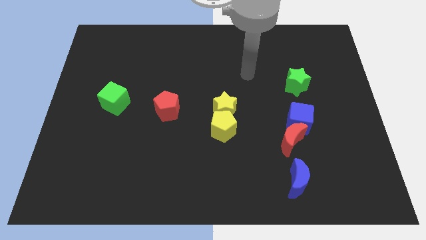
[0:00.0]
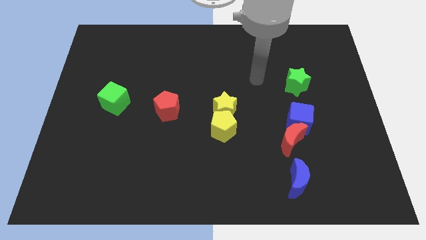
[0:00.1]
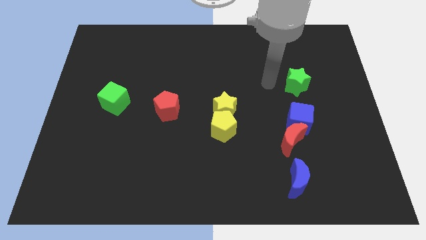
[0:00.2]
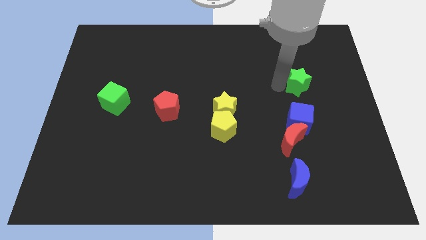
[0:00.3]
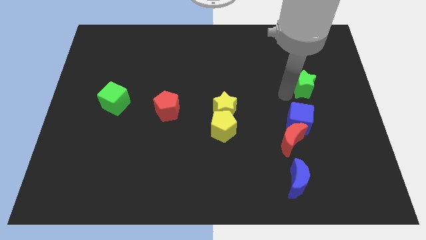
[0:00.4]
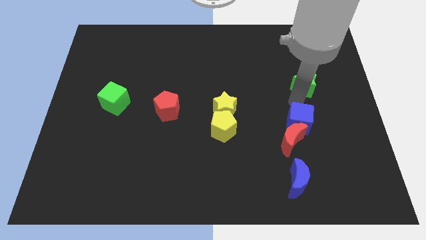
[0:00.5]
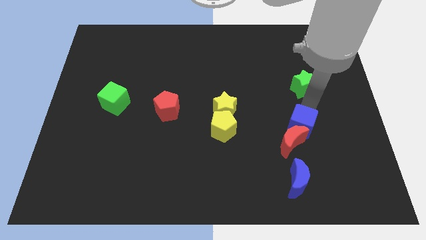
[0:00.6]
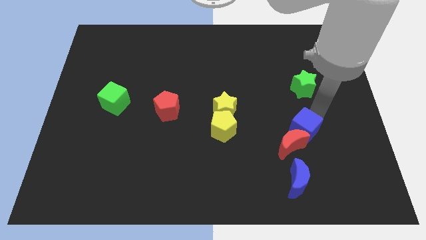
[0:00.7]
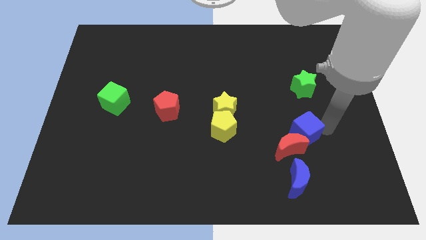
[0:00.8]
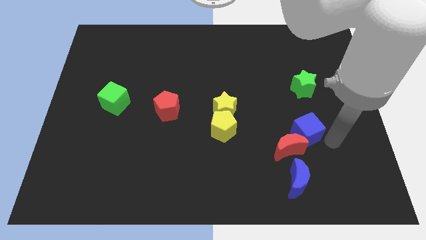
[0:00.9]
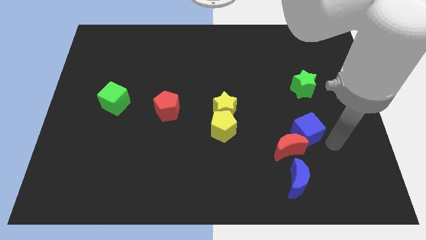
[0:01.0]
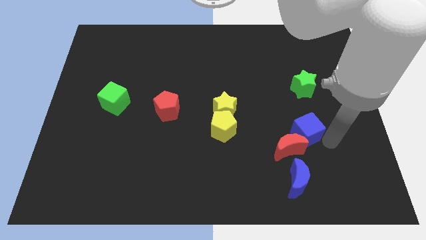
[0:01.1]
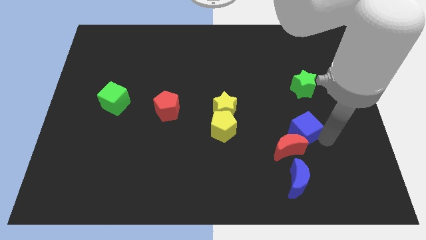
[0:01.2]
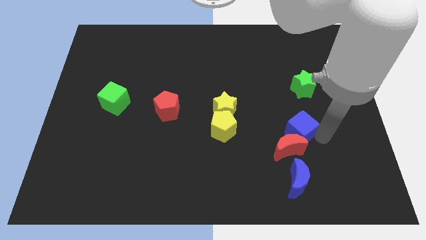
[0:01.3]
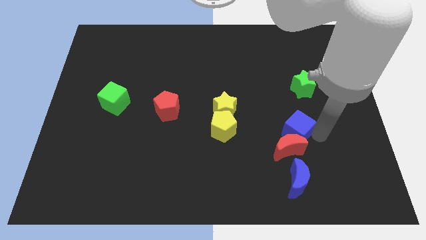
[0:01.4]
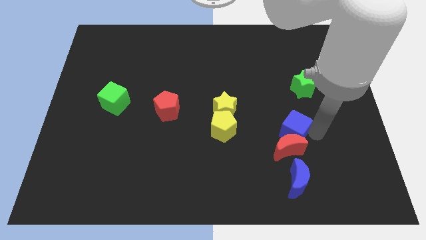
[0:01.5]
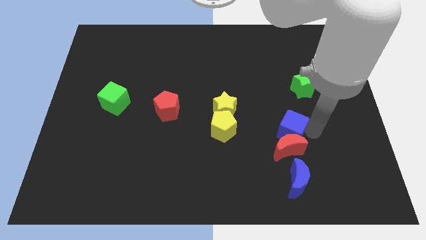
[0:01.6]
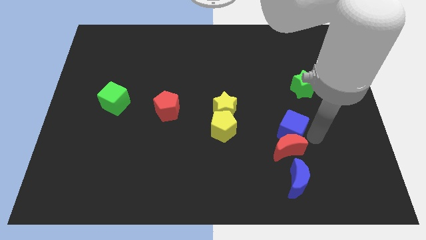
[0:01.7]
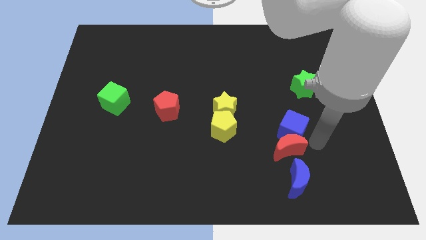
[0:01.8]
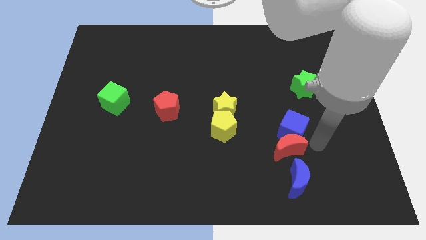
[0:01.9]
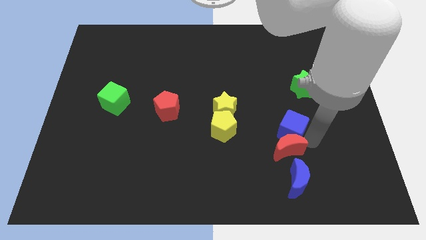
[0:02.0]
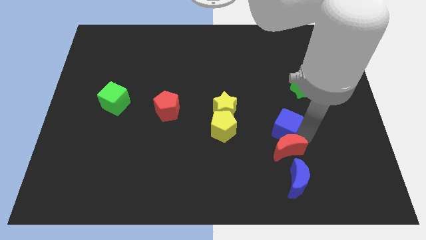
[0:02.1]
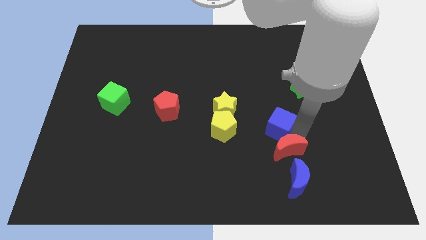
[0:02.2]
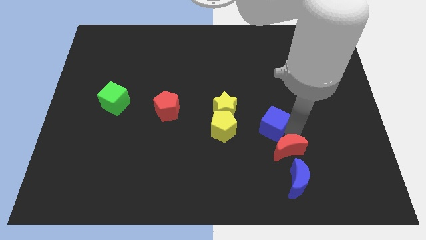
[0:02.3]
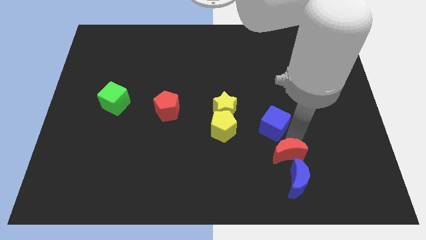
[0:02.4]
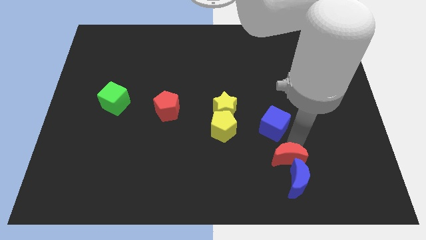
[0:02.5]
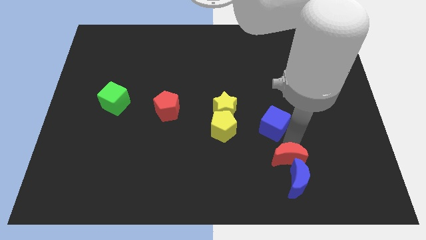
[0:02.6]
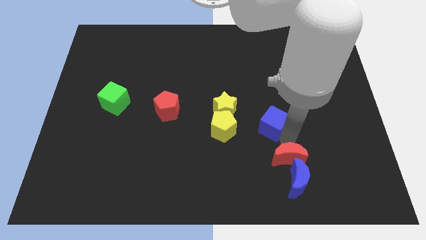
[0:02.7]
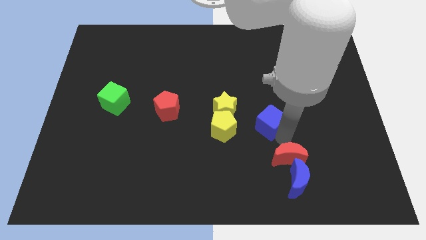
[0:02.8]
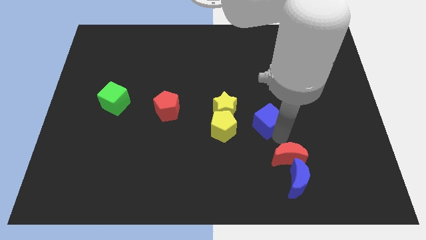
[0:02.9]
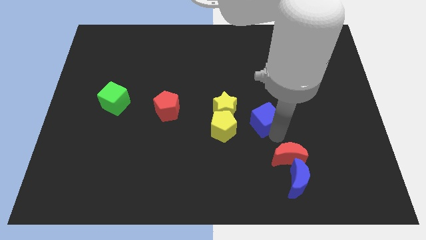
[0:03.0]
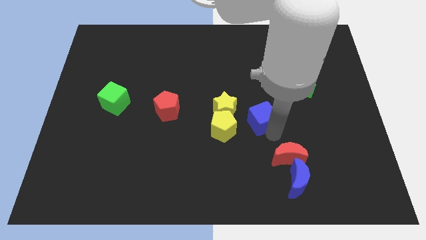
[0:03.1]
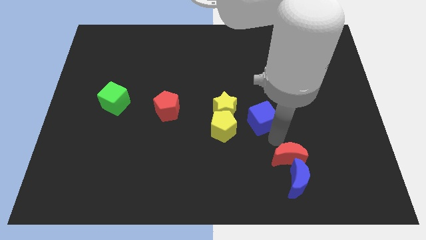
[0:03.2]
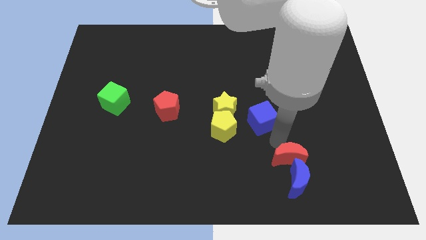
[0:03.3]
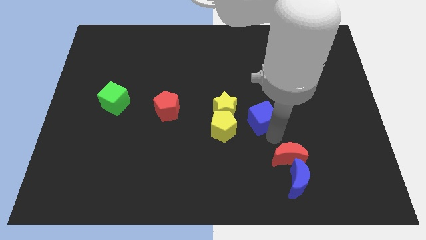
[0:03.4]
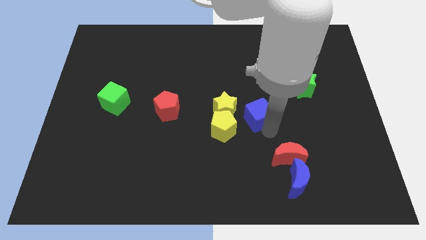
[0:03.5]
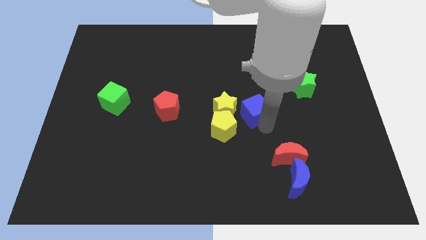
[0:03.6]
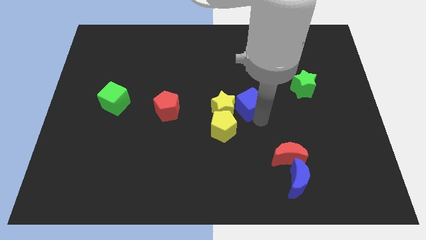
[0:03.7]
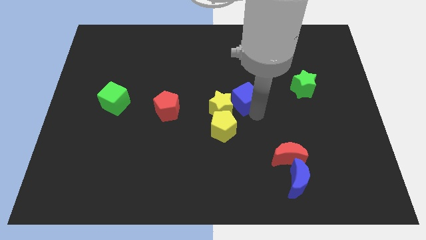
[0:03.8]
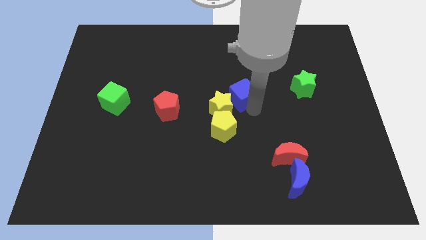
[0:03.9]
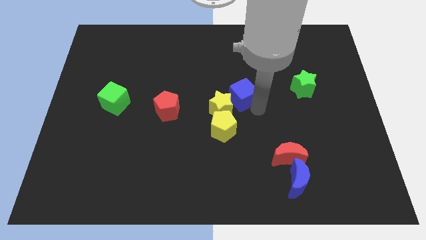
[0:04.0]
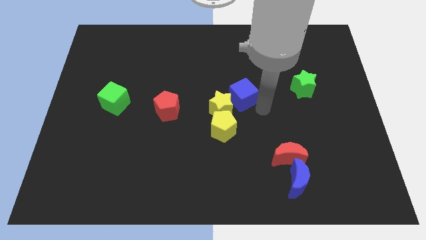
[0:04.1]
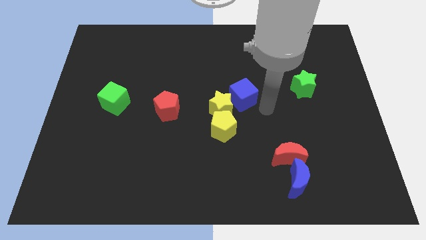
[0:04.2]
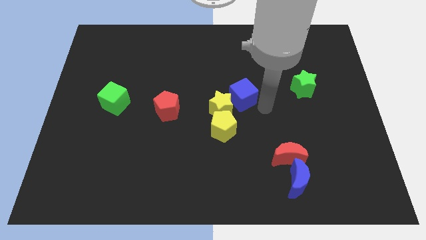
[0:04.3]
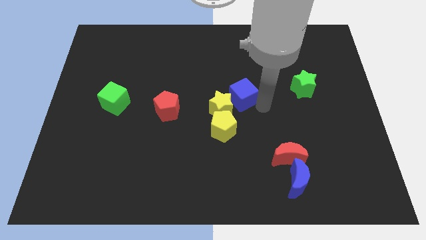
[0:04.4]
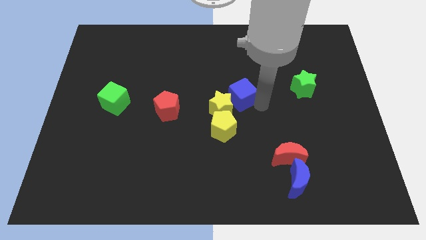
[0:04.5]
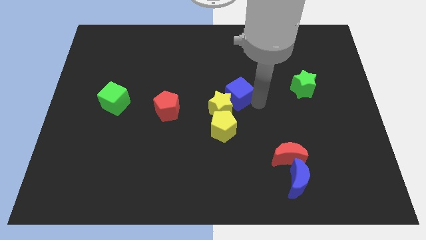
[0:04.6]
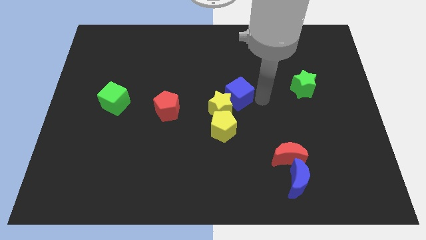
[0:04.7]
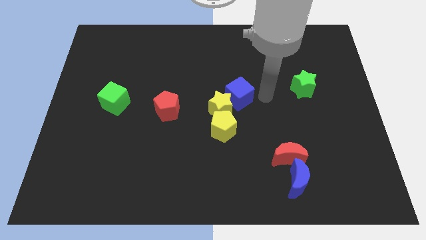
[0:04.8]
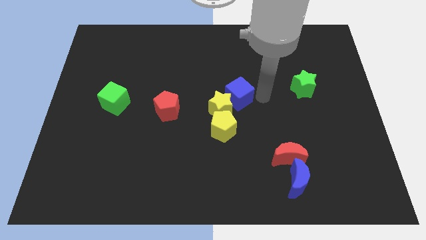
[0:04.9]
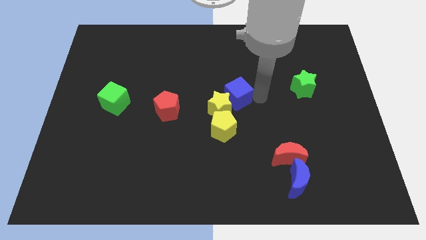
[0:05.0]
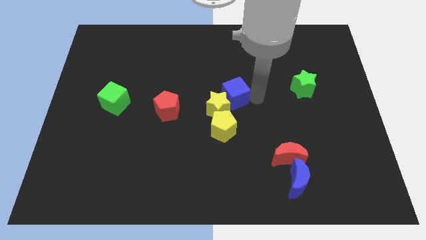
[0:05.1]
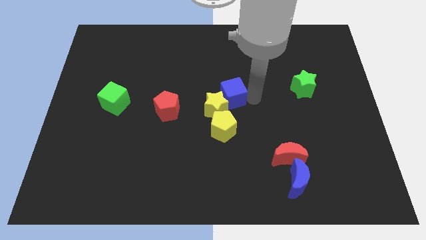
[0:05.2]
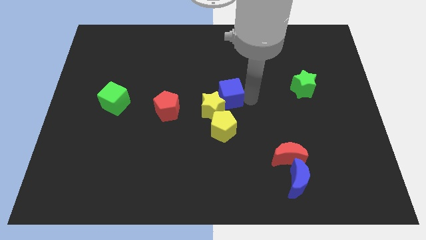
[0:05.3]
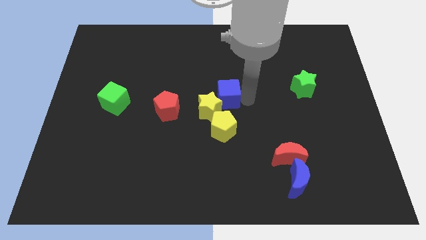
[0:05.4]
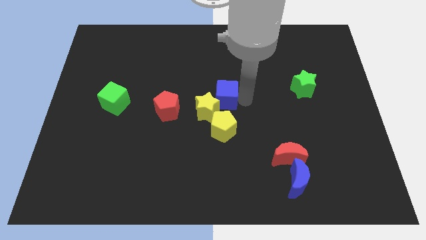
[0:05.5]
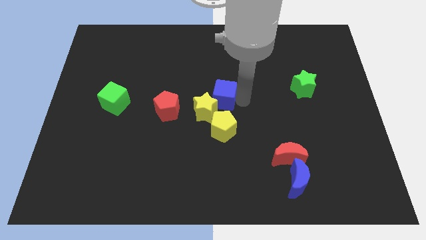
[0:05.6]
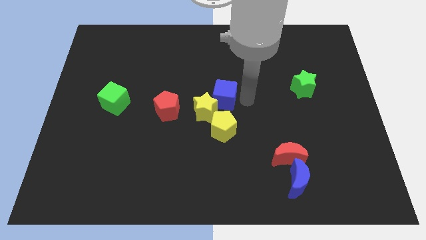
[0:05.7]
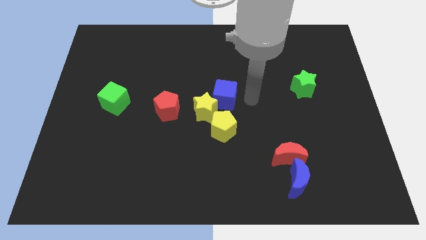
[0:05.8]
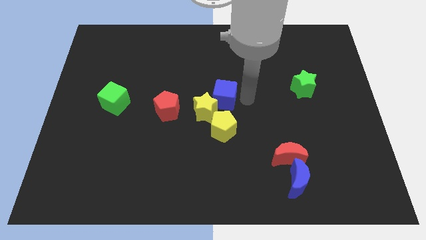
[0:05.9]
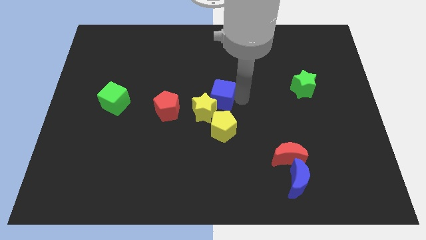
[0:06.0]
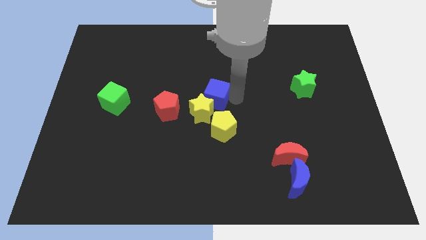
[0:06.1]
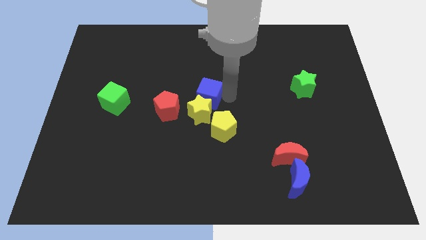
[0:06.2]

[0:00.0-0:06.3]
slide the blue cube to the top left side of the yellow pentagon
